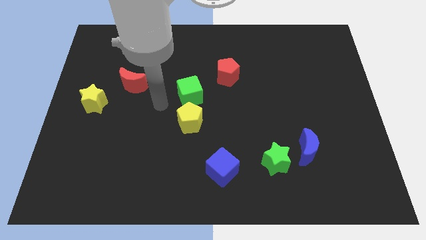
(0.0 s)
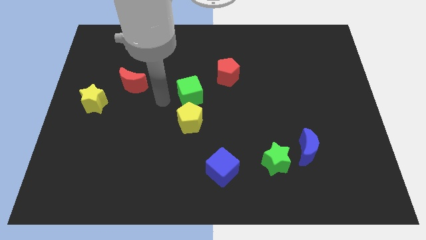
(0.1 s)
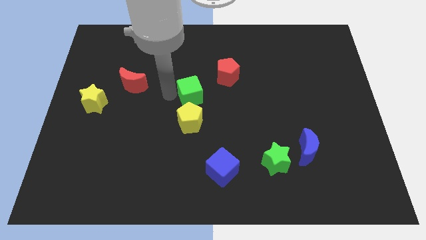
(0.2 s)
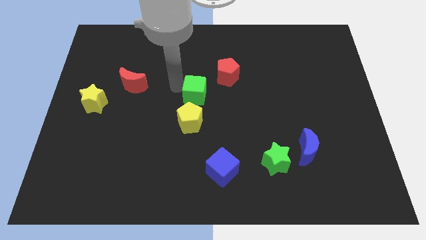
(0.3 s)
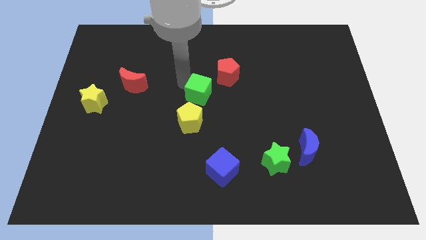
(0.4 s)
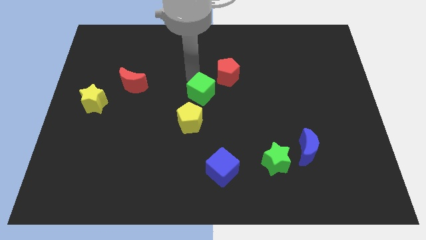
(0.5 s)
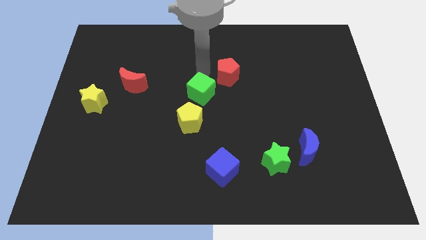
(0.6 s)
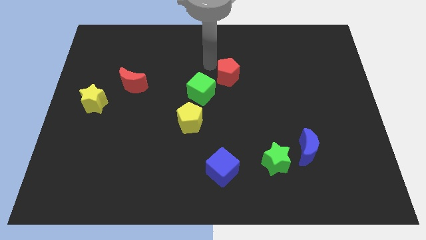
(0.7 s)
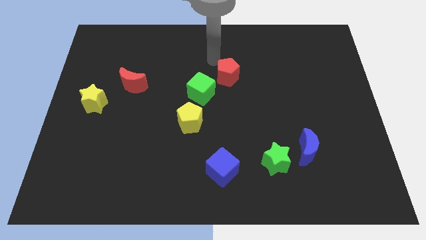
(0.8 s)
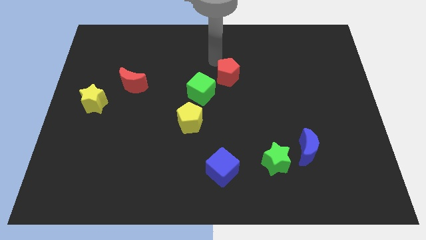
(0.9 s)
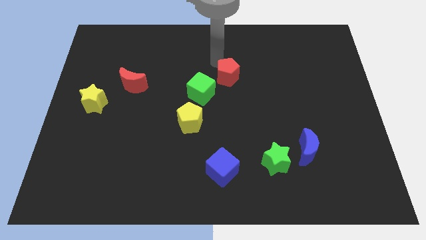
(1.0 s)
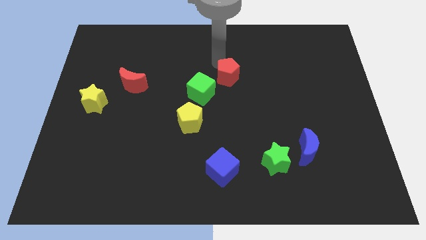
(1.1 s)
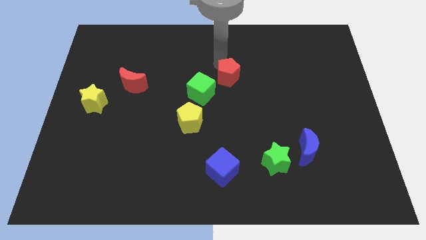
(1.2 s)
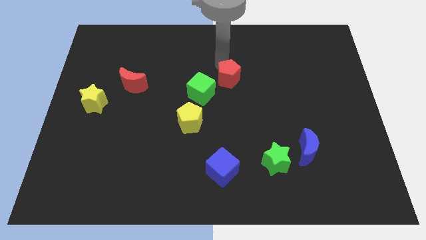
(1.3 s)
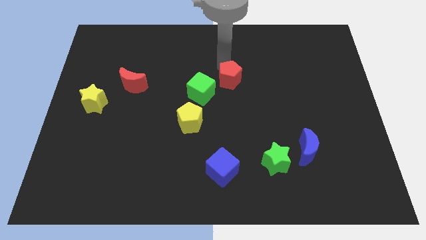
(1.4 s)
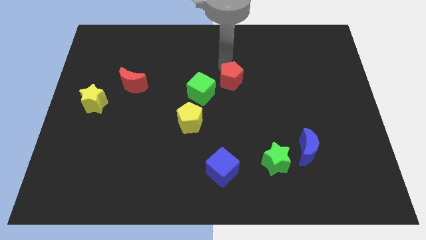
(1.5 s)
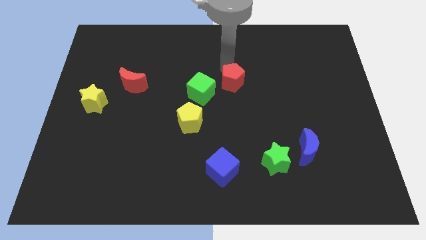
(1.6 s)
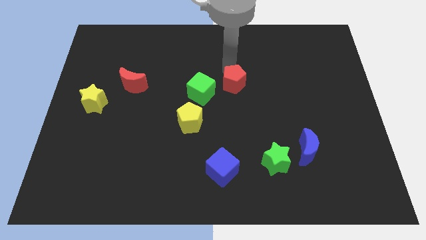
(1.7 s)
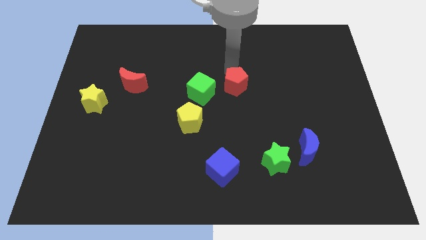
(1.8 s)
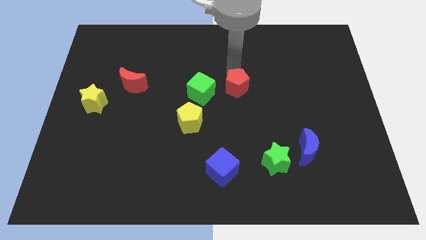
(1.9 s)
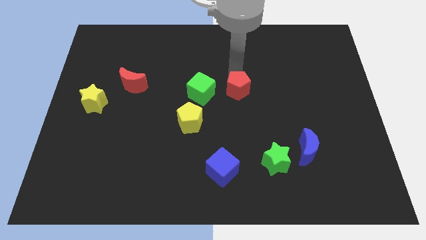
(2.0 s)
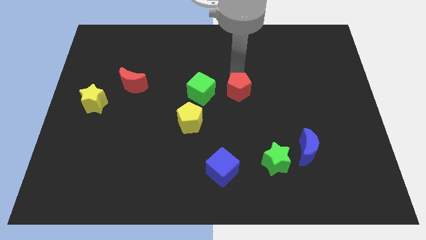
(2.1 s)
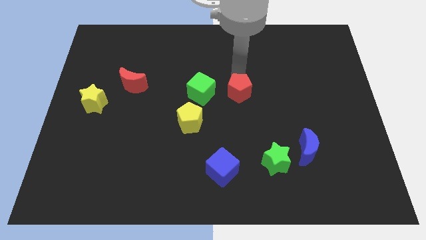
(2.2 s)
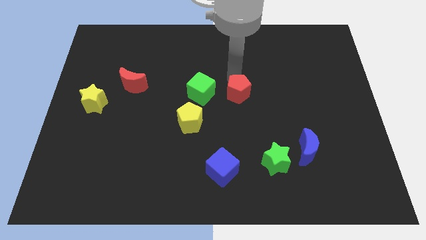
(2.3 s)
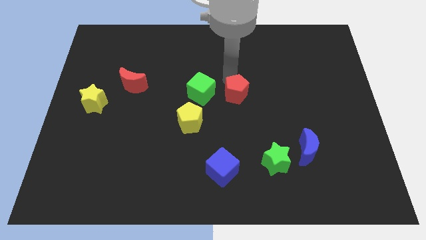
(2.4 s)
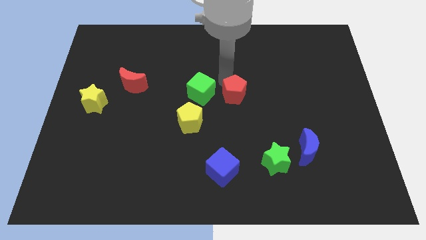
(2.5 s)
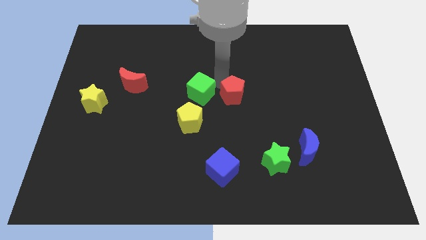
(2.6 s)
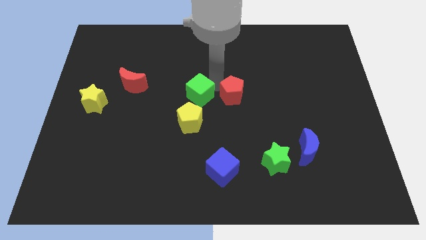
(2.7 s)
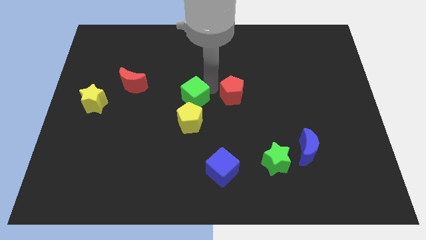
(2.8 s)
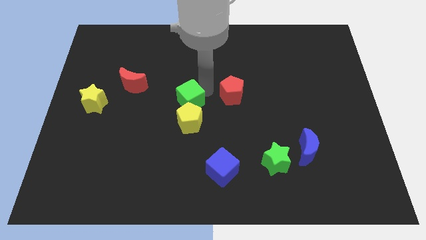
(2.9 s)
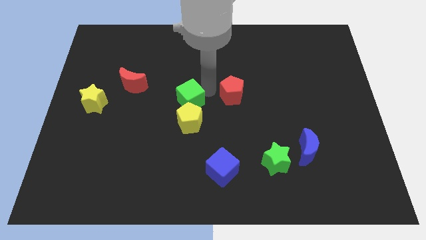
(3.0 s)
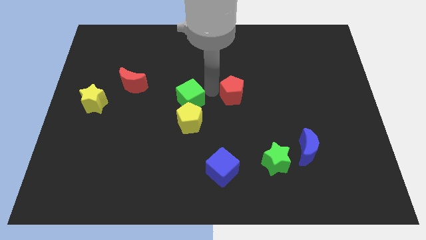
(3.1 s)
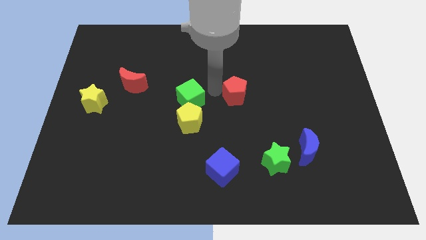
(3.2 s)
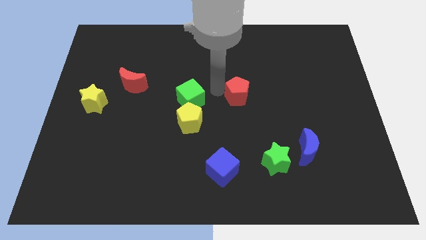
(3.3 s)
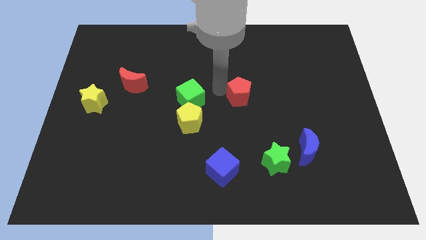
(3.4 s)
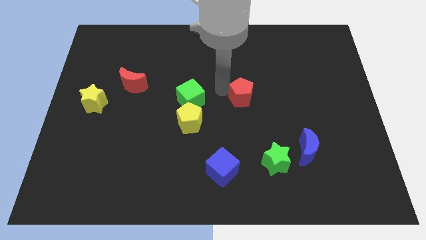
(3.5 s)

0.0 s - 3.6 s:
slightly move the red pentagon downwards and right diagonally

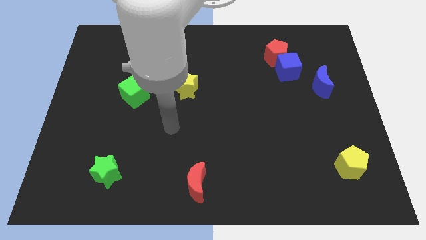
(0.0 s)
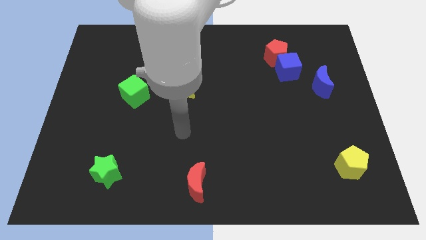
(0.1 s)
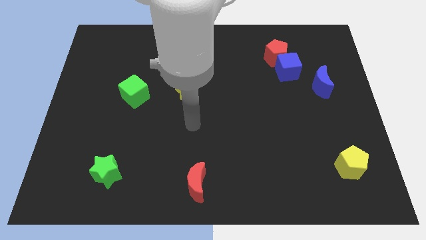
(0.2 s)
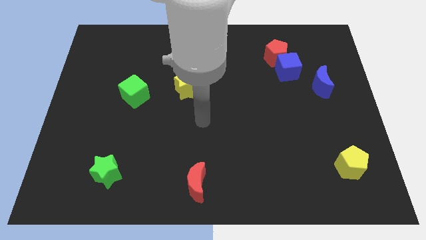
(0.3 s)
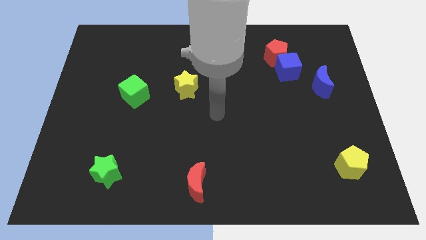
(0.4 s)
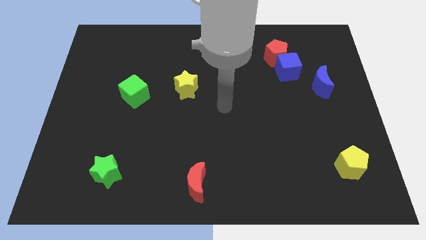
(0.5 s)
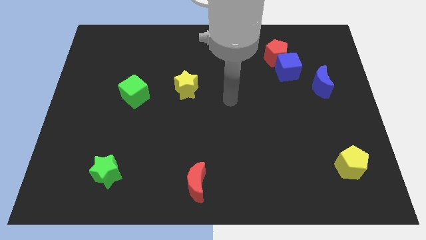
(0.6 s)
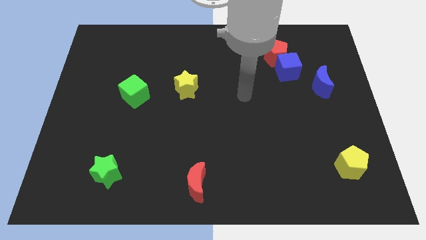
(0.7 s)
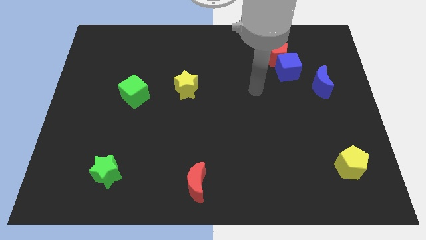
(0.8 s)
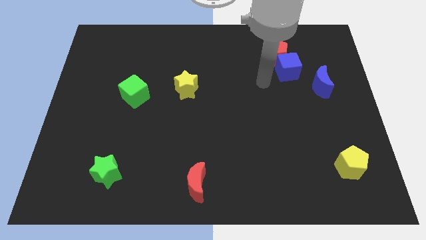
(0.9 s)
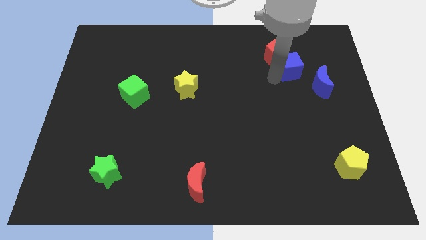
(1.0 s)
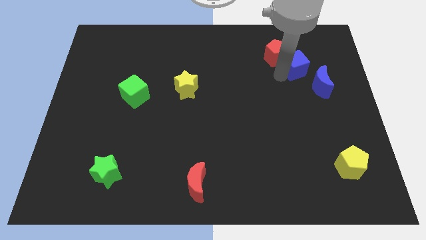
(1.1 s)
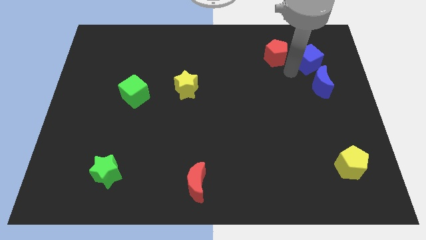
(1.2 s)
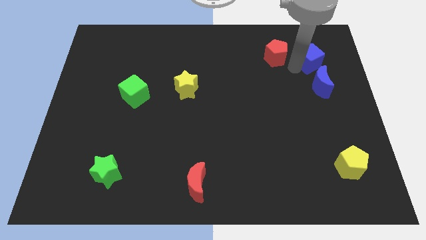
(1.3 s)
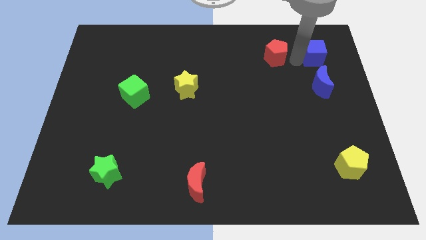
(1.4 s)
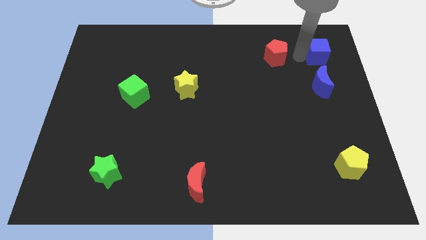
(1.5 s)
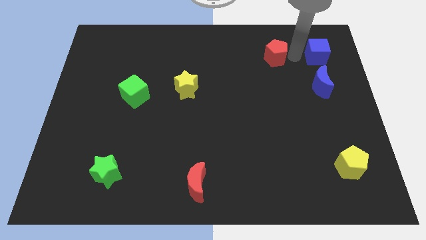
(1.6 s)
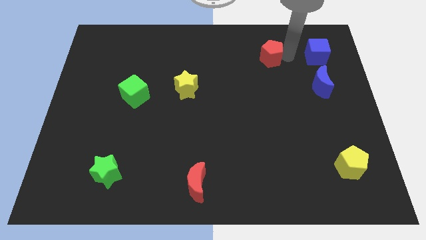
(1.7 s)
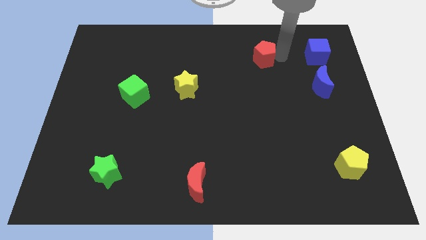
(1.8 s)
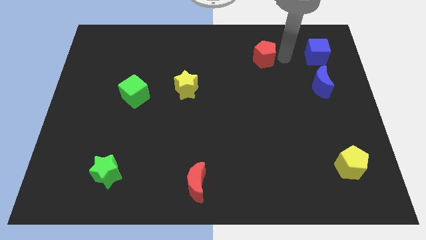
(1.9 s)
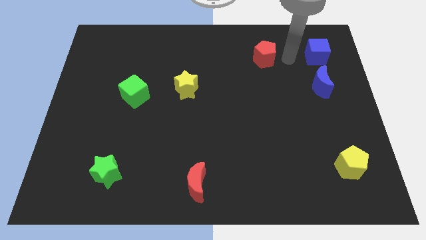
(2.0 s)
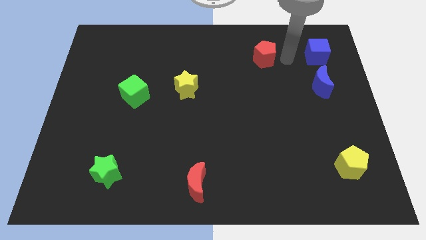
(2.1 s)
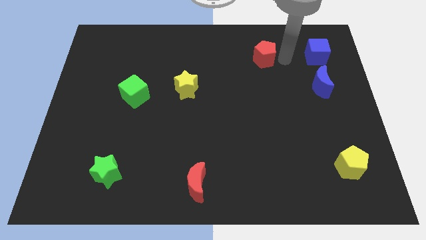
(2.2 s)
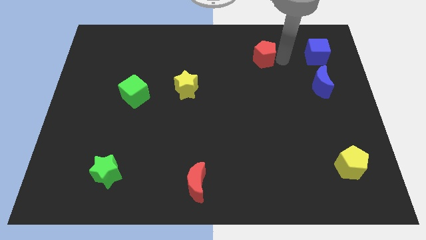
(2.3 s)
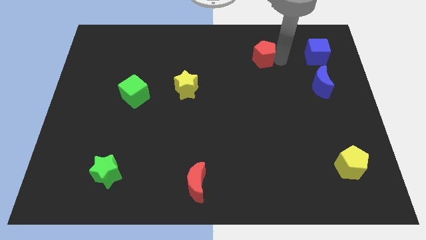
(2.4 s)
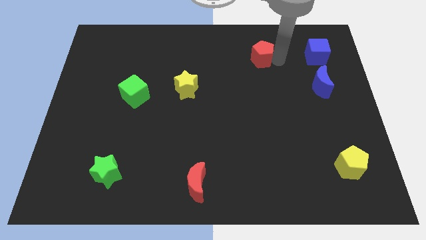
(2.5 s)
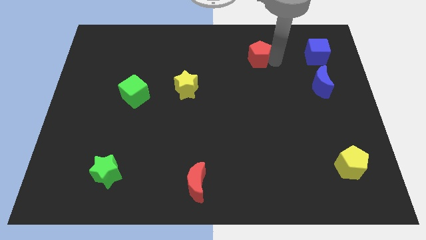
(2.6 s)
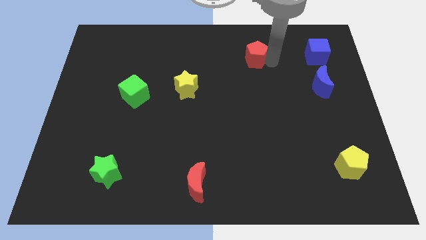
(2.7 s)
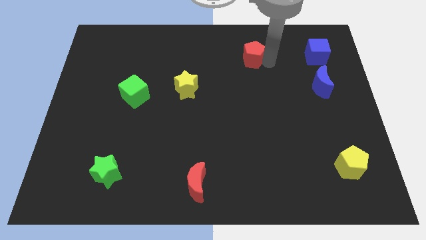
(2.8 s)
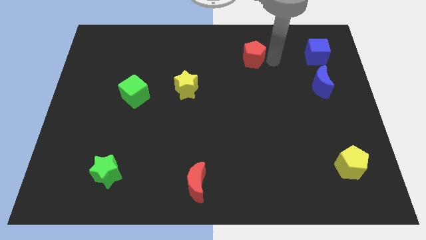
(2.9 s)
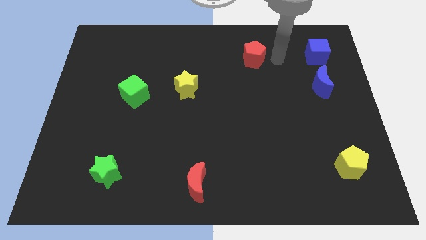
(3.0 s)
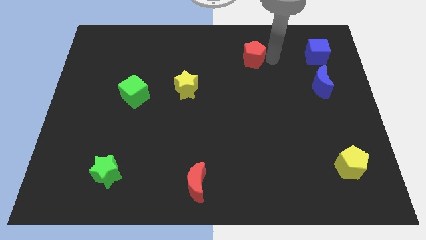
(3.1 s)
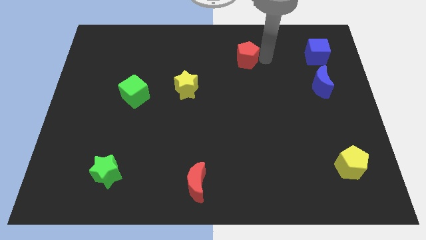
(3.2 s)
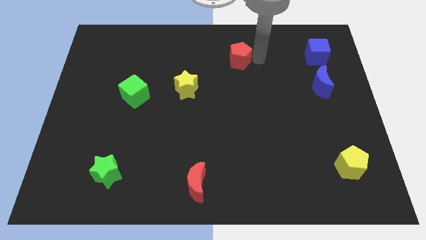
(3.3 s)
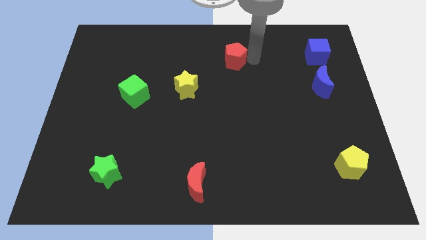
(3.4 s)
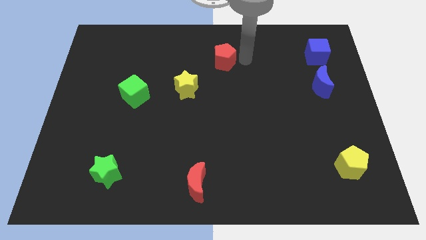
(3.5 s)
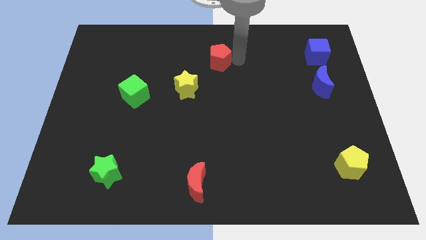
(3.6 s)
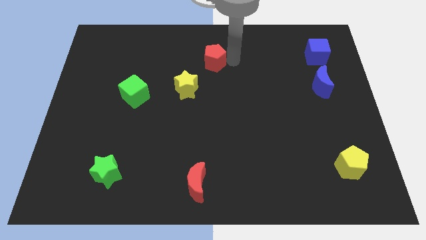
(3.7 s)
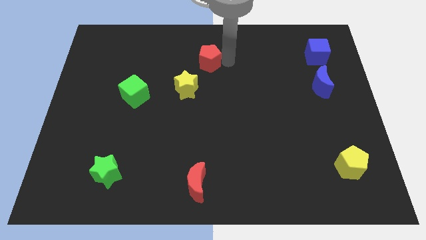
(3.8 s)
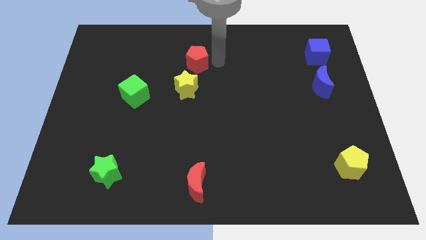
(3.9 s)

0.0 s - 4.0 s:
slide the red pentagon left

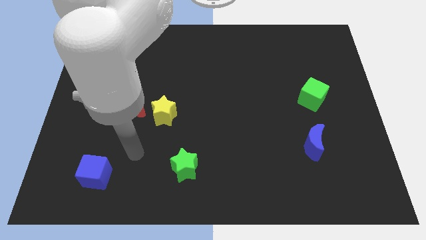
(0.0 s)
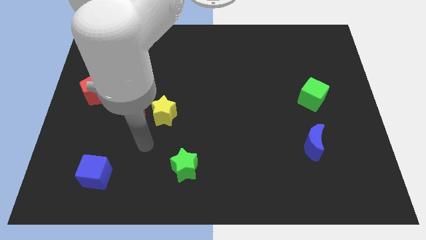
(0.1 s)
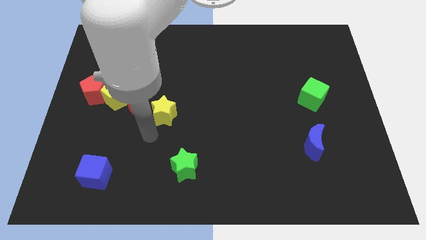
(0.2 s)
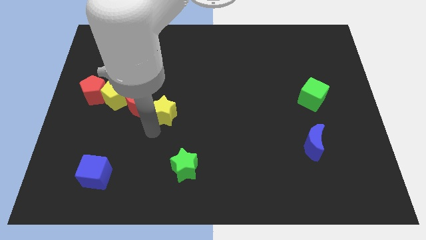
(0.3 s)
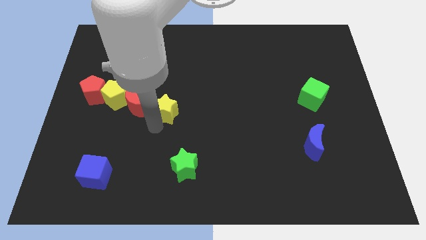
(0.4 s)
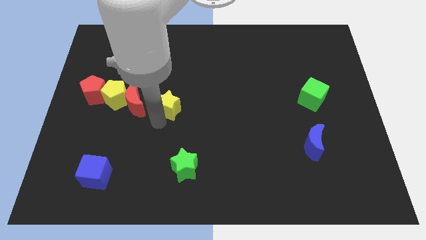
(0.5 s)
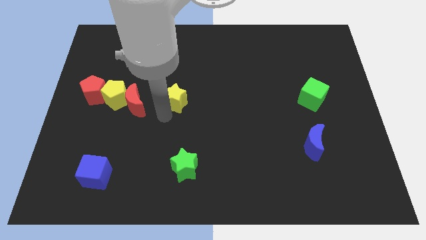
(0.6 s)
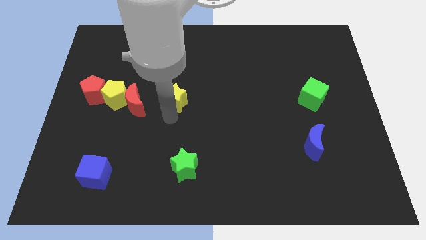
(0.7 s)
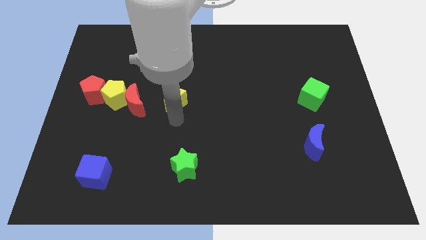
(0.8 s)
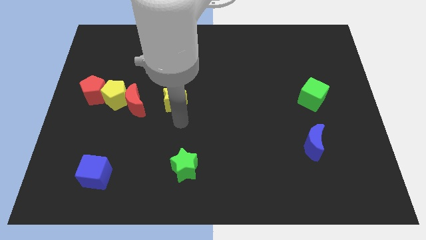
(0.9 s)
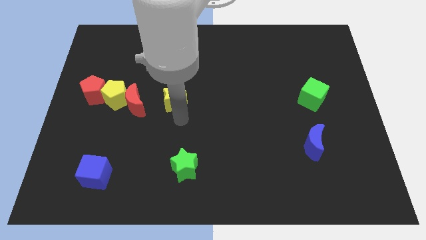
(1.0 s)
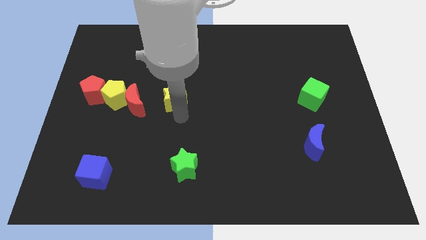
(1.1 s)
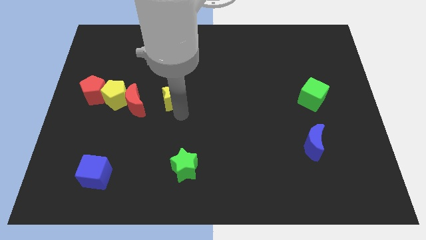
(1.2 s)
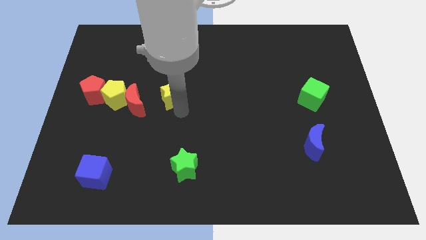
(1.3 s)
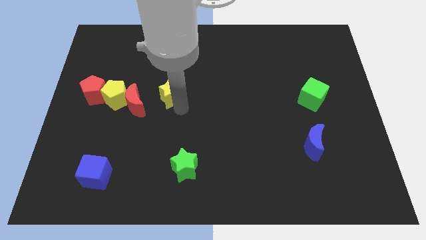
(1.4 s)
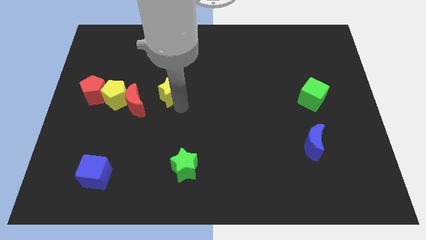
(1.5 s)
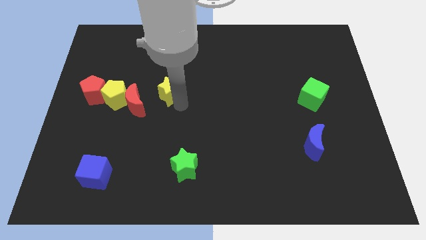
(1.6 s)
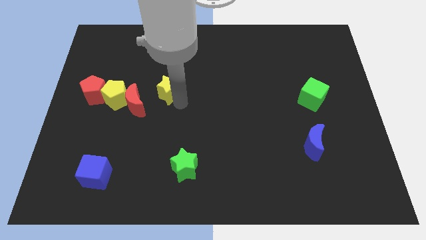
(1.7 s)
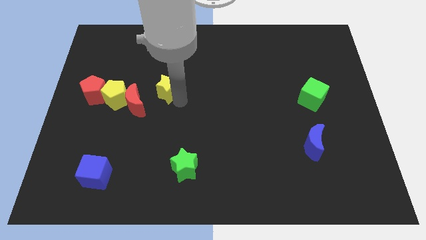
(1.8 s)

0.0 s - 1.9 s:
move the yellow star a little bit upwards
